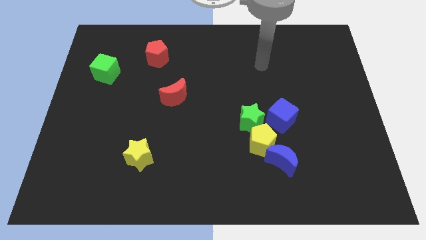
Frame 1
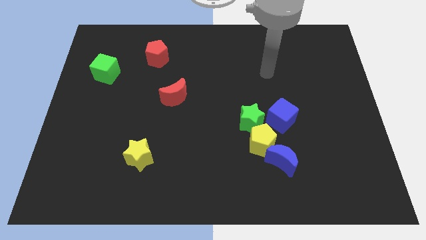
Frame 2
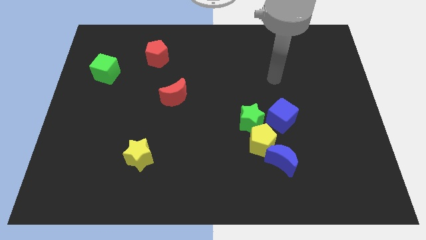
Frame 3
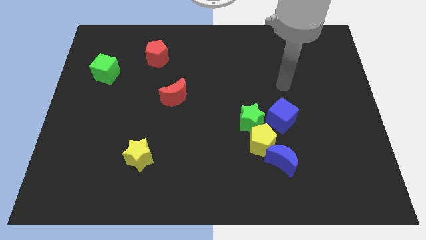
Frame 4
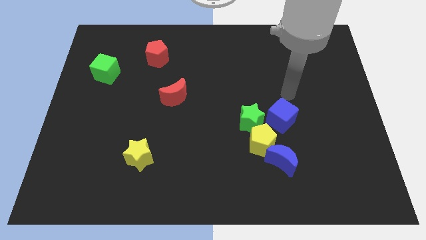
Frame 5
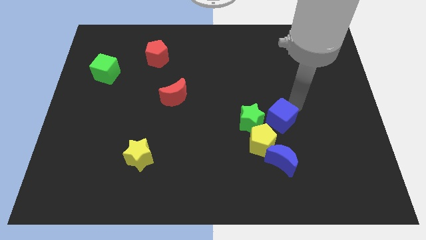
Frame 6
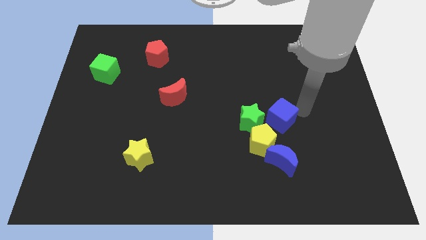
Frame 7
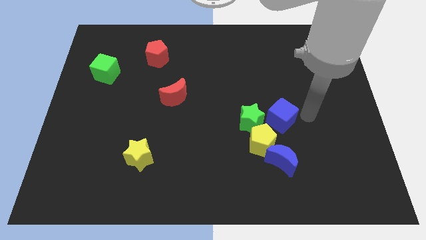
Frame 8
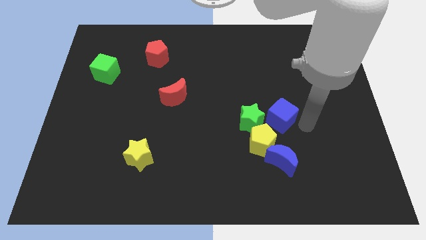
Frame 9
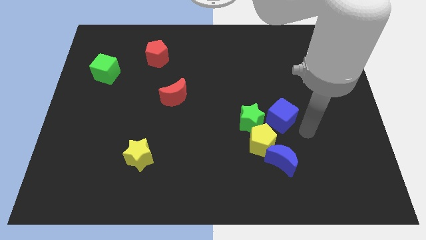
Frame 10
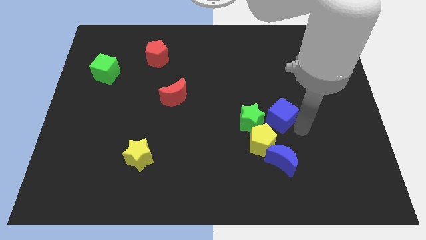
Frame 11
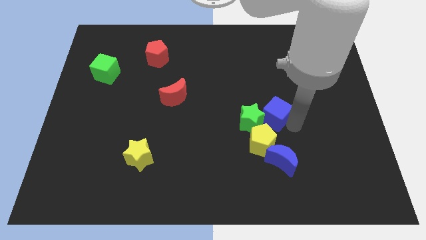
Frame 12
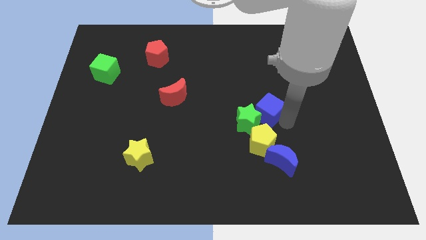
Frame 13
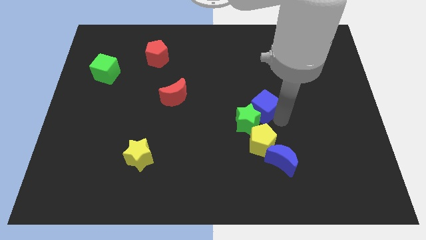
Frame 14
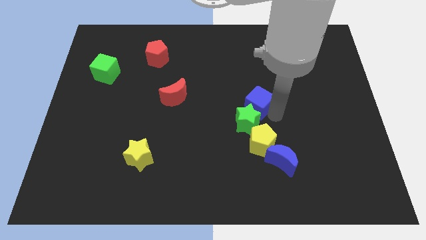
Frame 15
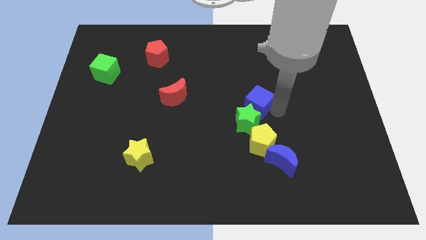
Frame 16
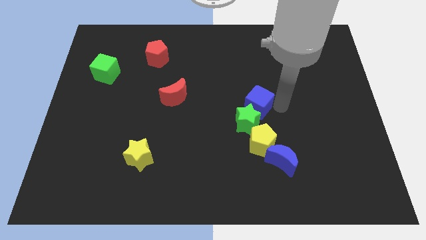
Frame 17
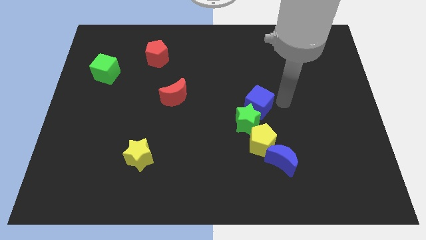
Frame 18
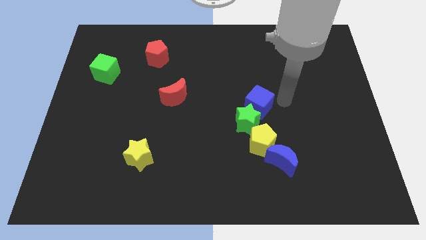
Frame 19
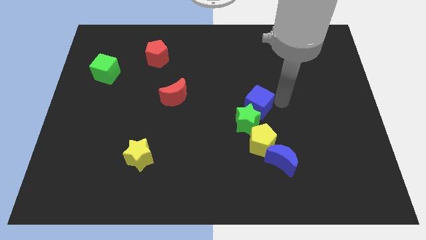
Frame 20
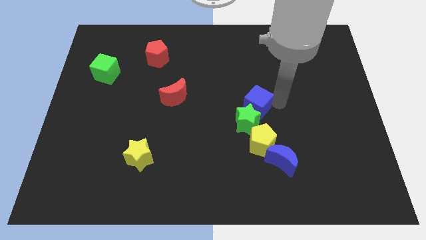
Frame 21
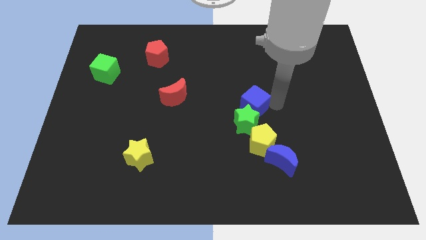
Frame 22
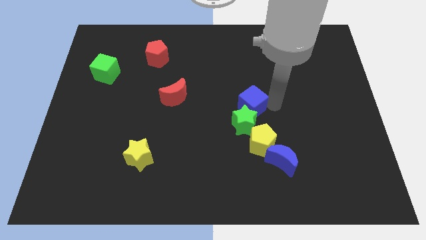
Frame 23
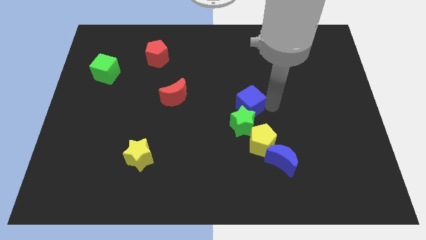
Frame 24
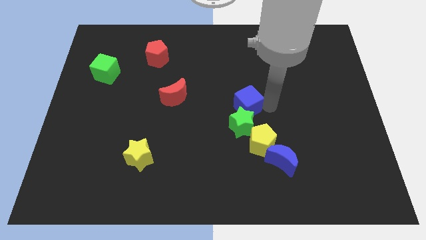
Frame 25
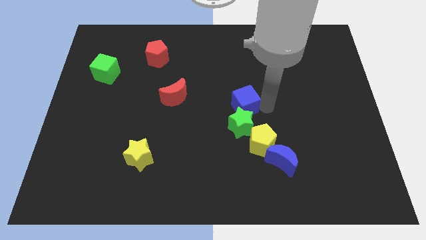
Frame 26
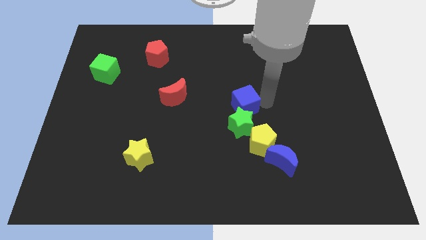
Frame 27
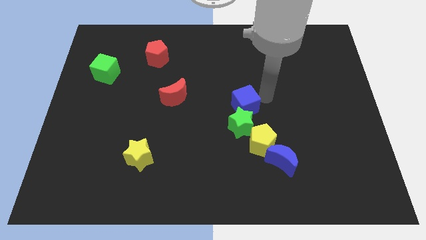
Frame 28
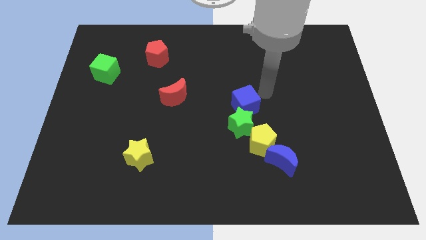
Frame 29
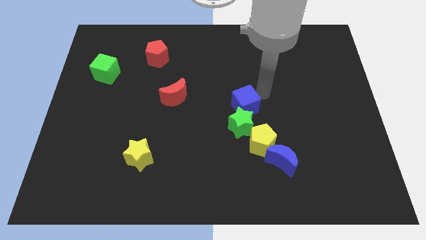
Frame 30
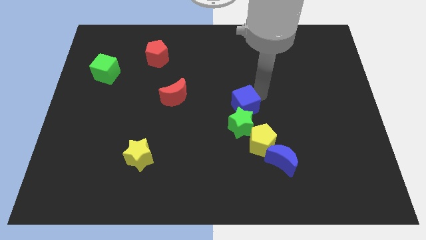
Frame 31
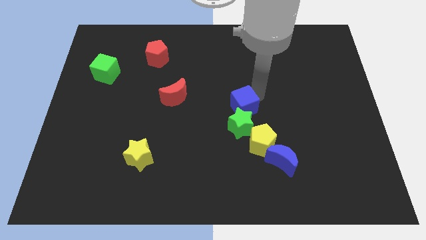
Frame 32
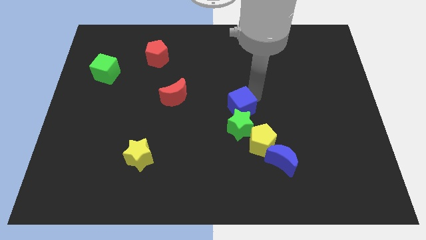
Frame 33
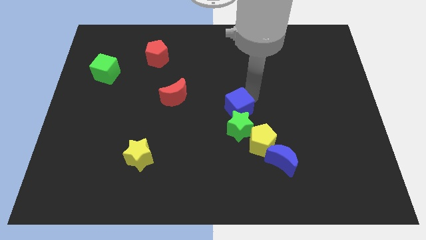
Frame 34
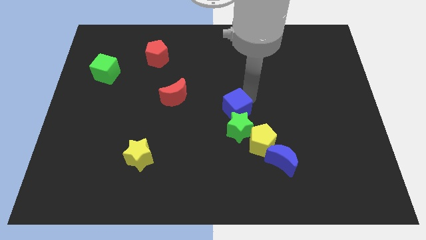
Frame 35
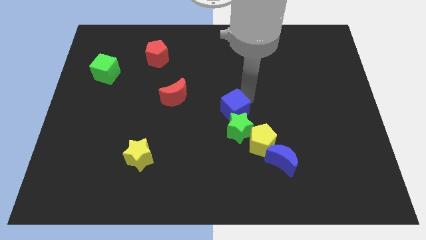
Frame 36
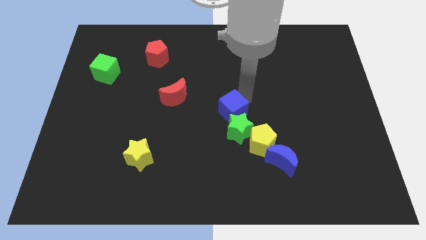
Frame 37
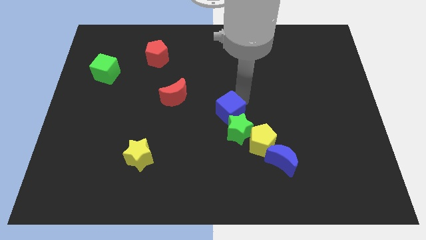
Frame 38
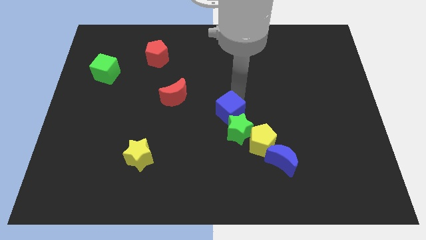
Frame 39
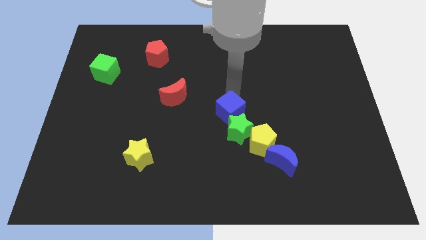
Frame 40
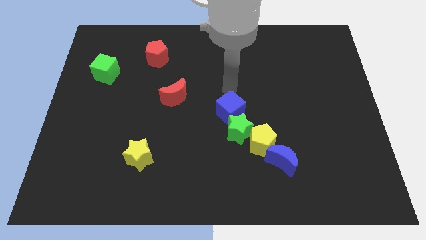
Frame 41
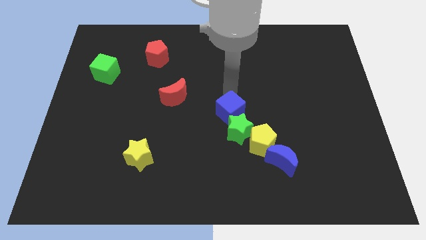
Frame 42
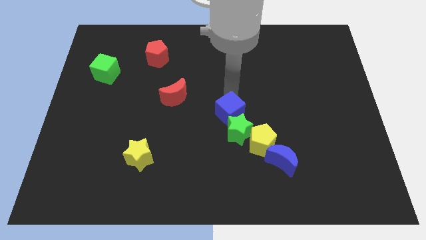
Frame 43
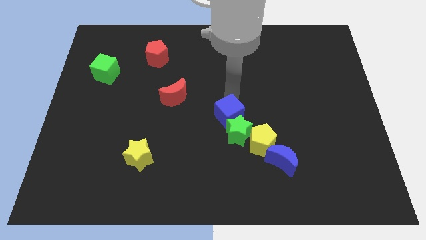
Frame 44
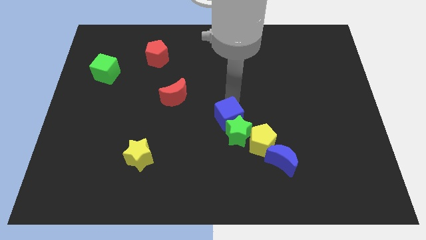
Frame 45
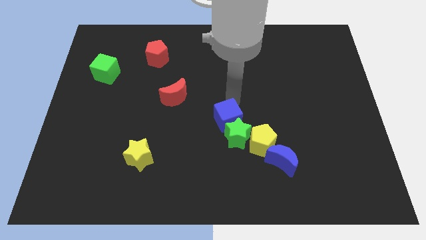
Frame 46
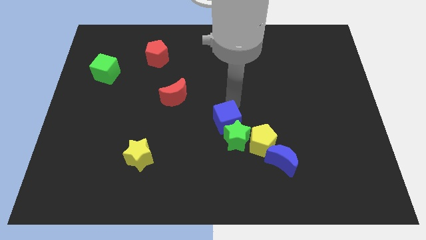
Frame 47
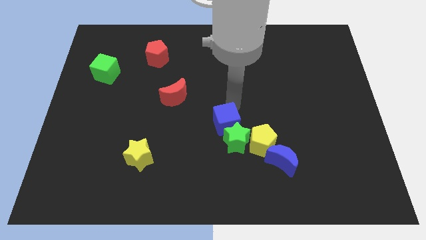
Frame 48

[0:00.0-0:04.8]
push the blue cube downwards and left diagonally somewhat

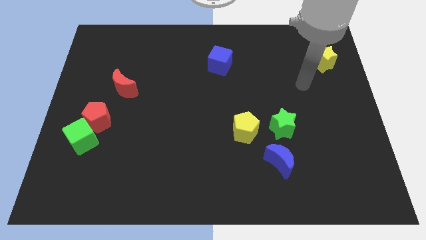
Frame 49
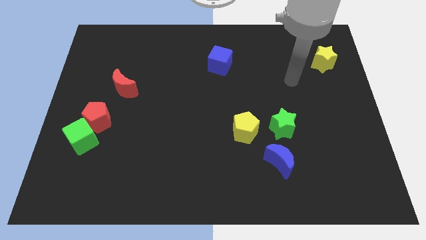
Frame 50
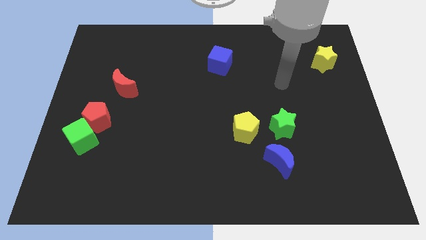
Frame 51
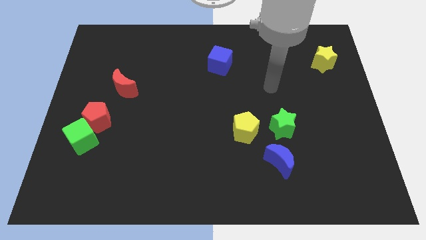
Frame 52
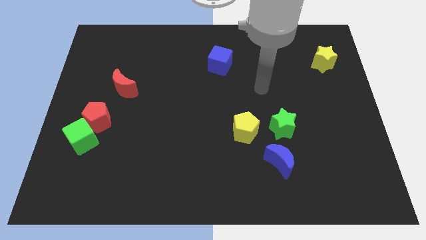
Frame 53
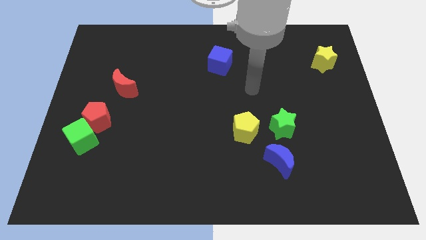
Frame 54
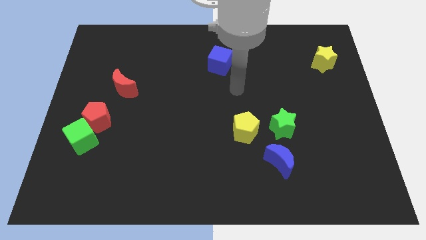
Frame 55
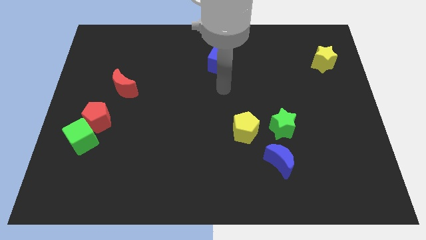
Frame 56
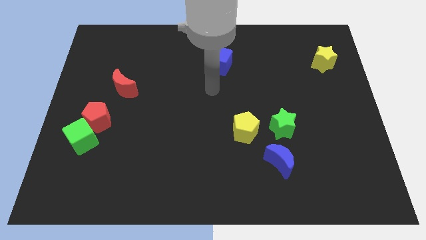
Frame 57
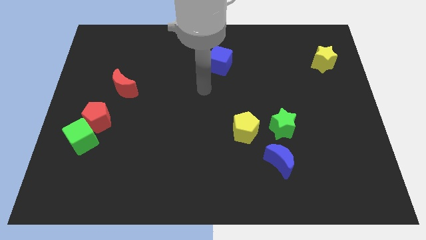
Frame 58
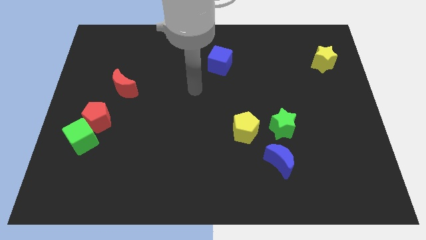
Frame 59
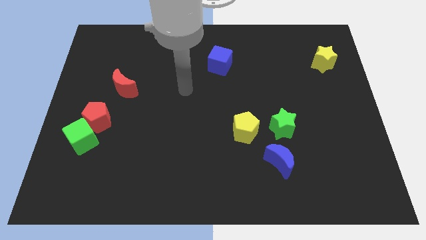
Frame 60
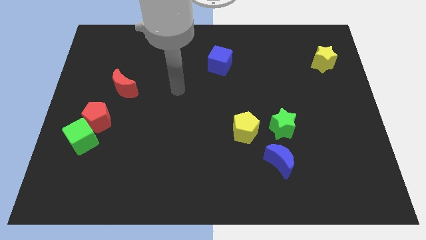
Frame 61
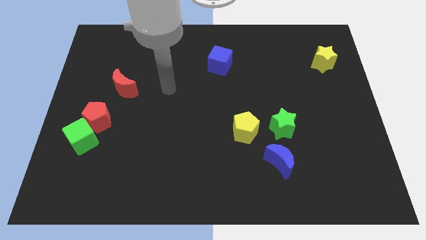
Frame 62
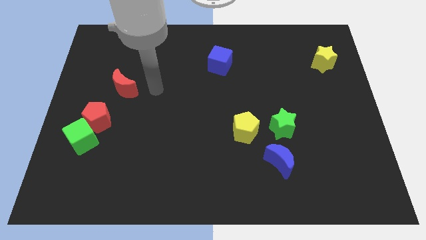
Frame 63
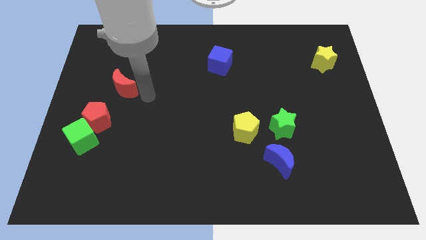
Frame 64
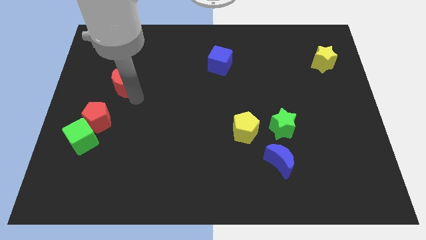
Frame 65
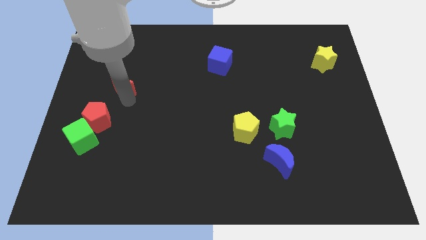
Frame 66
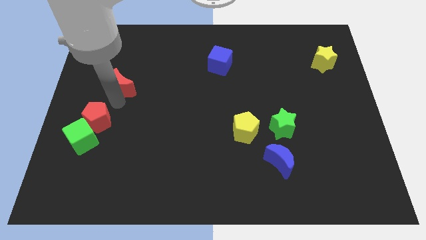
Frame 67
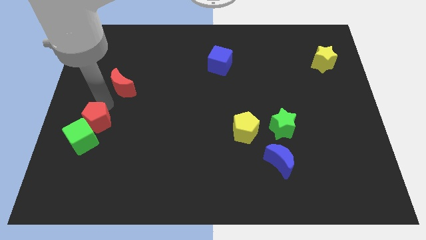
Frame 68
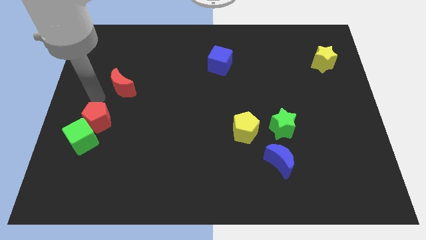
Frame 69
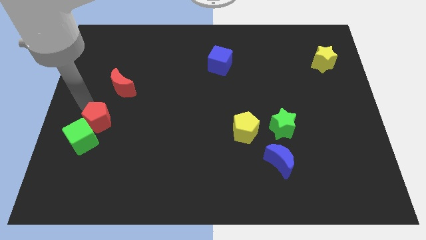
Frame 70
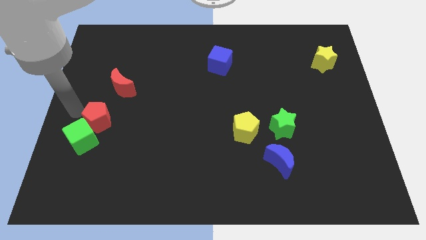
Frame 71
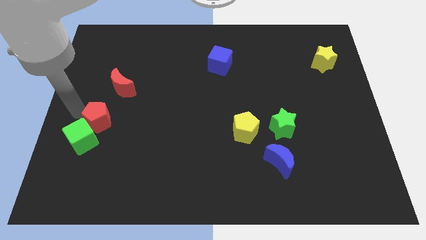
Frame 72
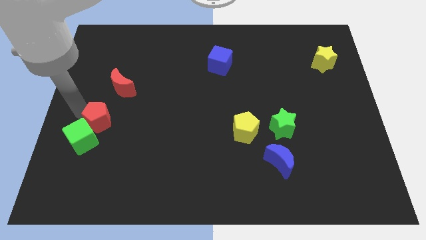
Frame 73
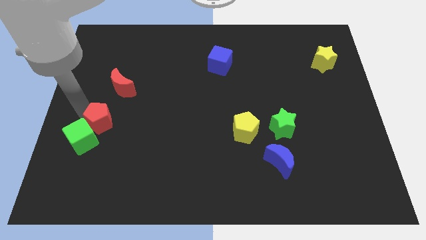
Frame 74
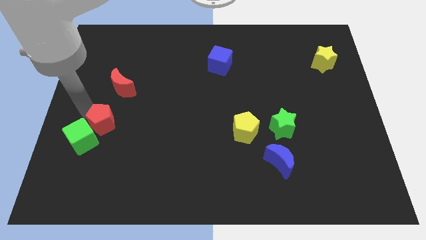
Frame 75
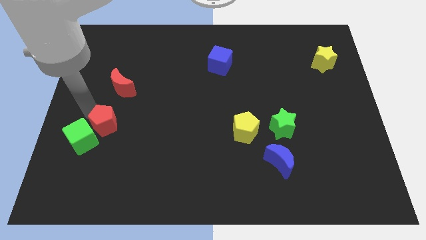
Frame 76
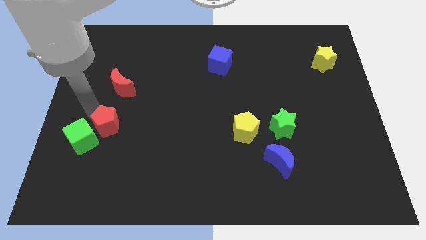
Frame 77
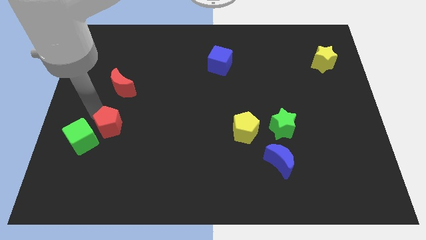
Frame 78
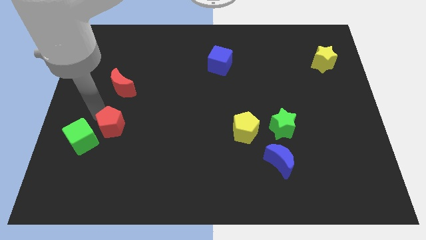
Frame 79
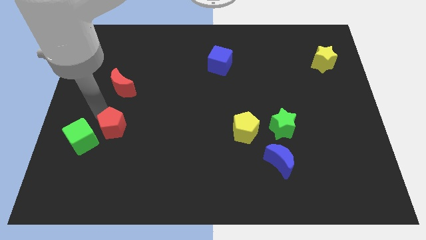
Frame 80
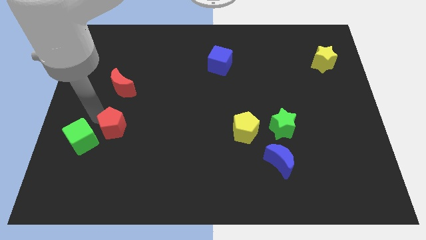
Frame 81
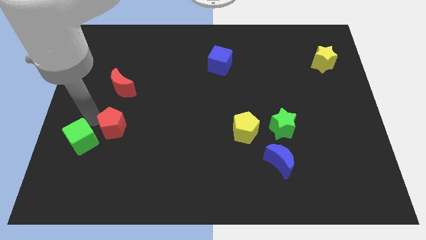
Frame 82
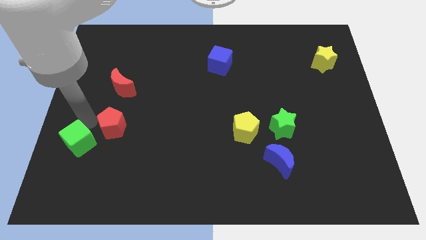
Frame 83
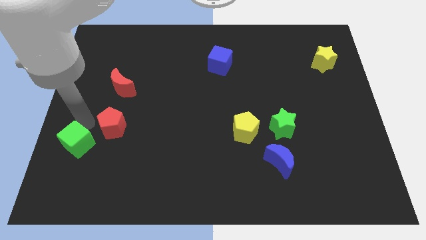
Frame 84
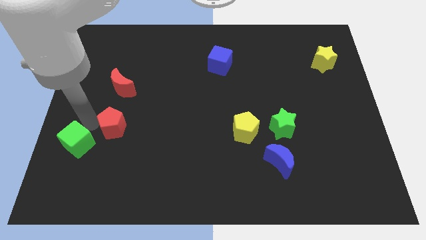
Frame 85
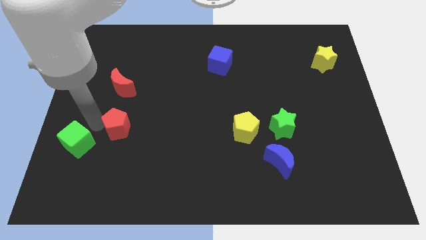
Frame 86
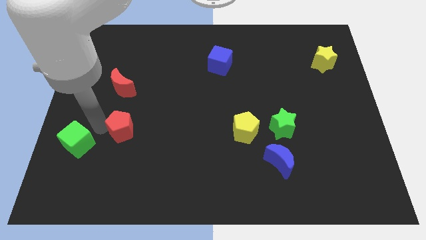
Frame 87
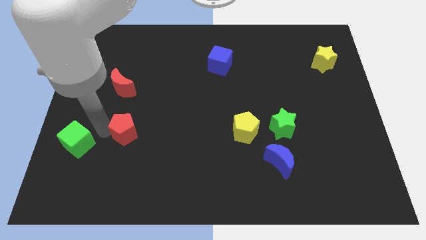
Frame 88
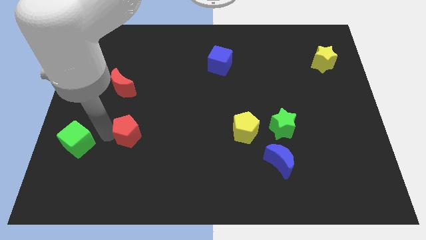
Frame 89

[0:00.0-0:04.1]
slide the red pentagon to the right a little bit
